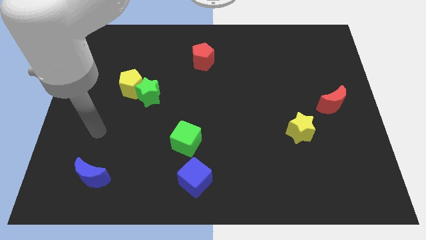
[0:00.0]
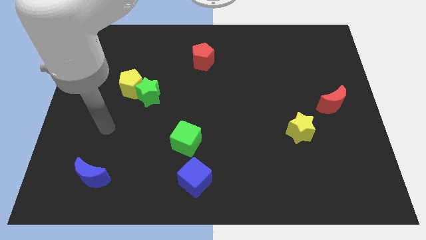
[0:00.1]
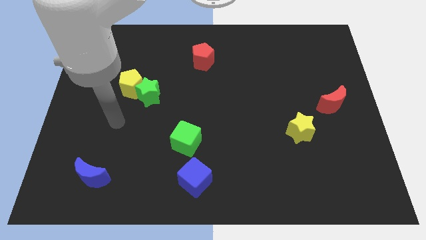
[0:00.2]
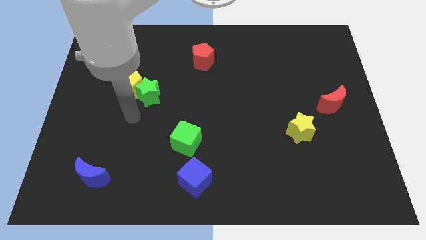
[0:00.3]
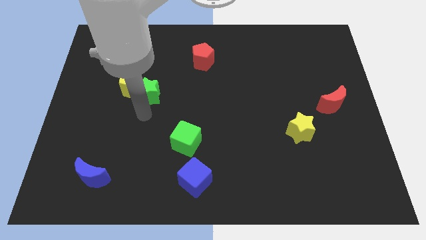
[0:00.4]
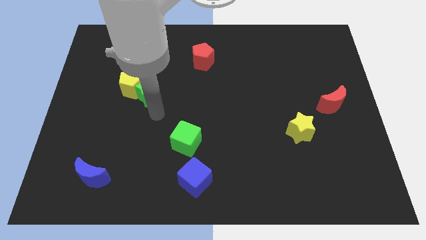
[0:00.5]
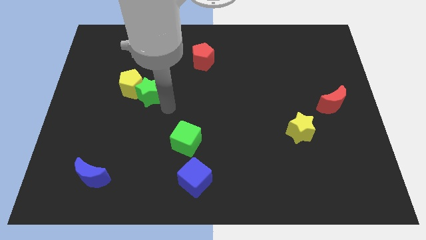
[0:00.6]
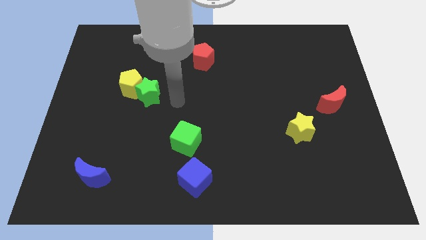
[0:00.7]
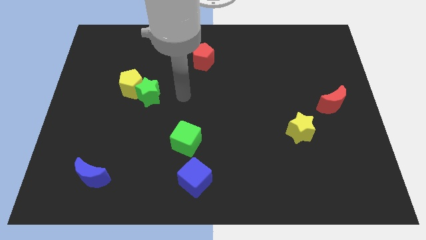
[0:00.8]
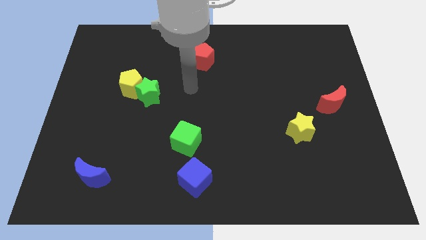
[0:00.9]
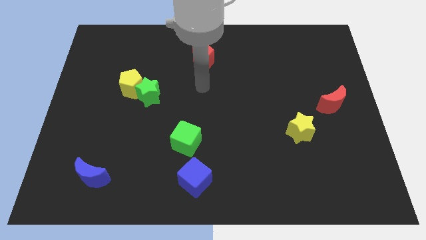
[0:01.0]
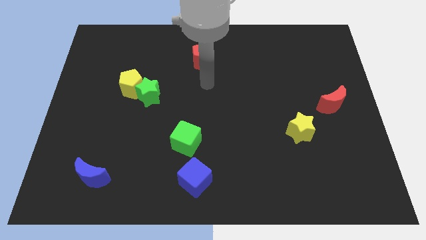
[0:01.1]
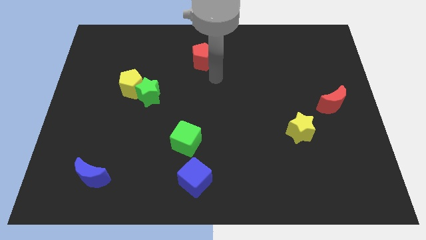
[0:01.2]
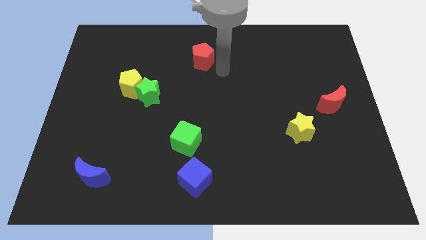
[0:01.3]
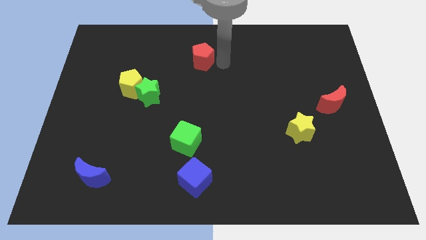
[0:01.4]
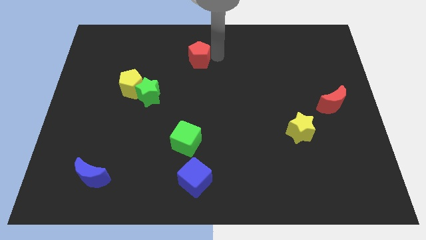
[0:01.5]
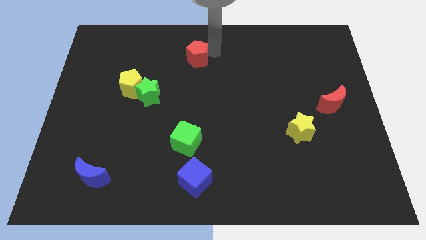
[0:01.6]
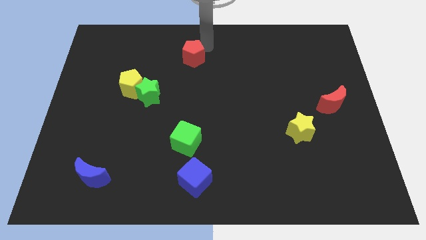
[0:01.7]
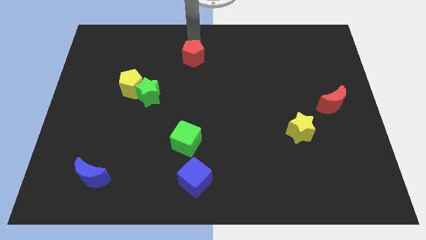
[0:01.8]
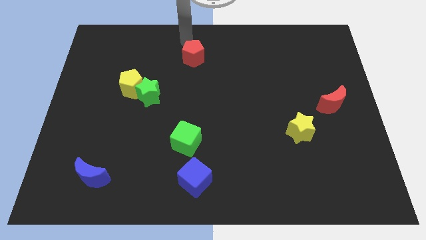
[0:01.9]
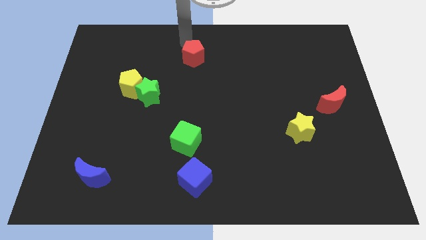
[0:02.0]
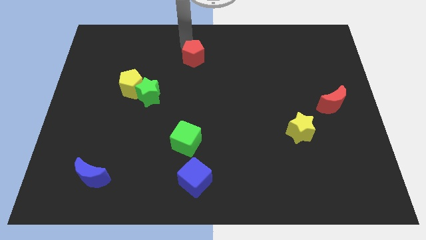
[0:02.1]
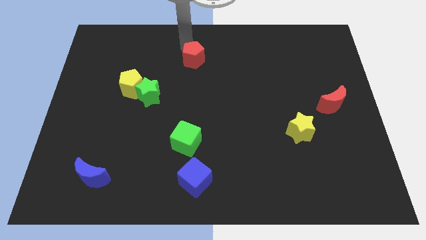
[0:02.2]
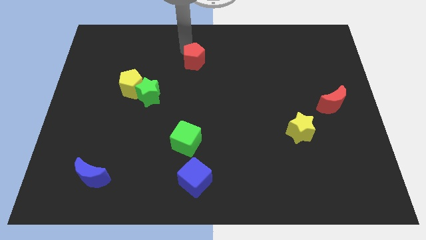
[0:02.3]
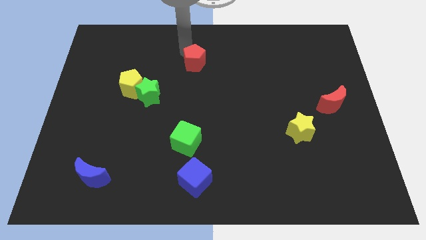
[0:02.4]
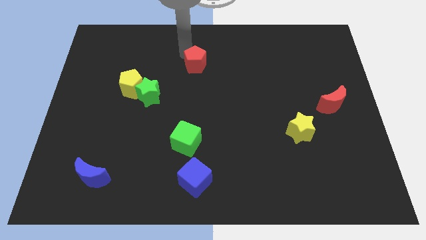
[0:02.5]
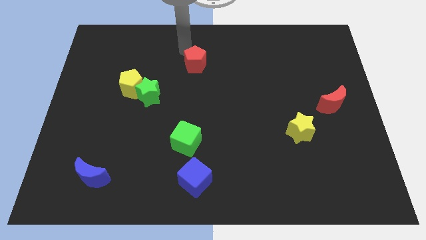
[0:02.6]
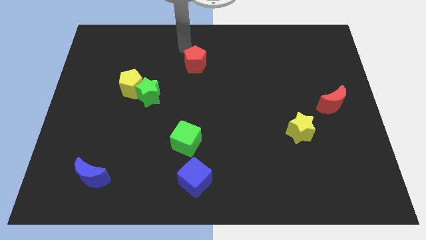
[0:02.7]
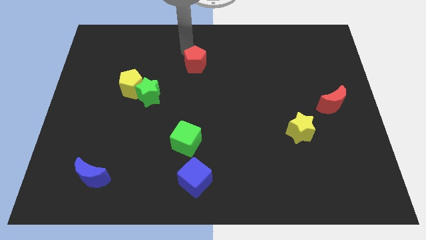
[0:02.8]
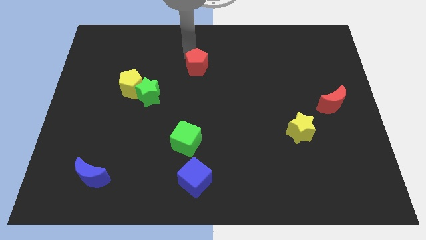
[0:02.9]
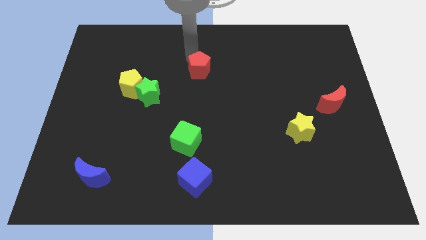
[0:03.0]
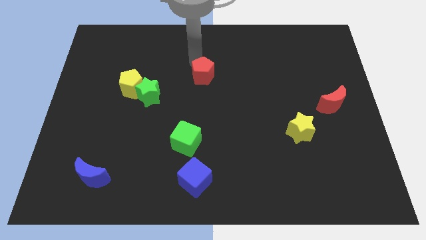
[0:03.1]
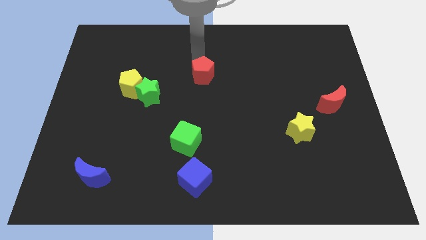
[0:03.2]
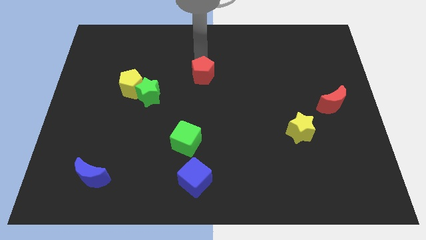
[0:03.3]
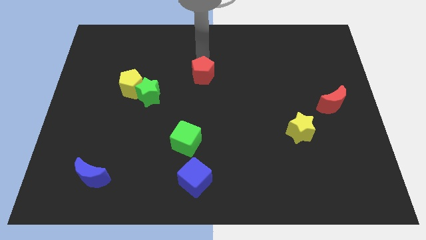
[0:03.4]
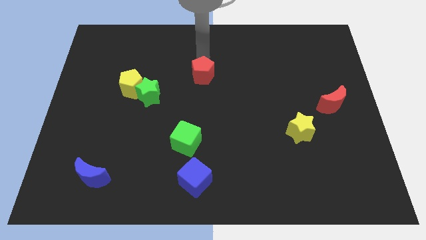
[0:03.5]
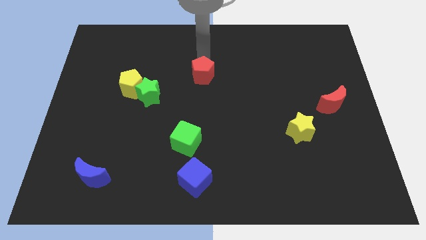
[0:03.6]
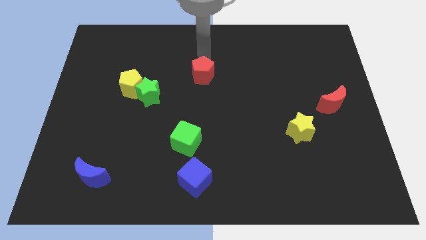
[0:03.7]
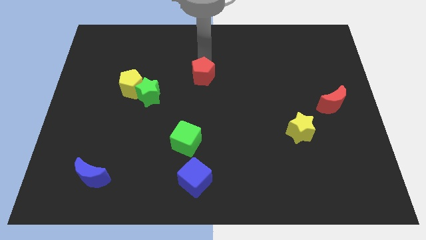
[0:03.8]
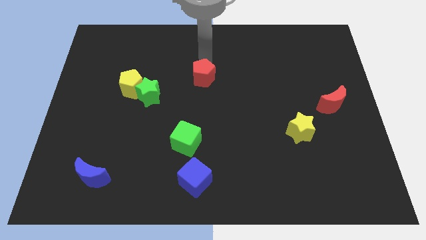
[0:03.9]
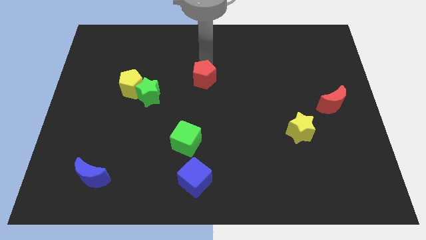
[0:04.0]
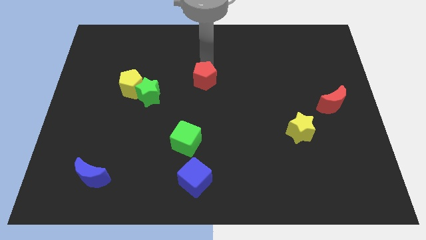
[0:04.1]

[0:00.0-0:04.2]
move the red pentagon a little downwards

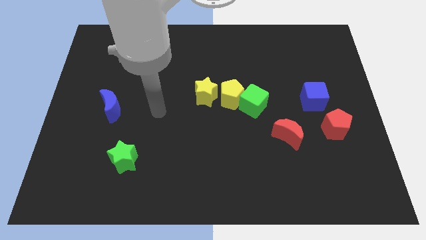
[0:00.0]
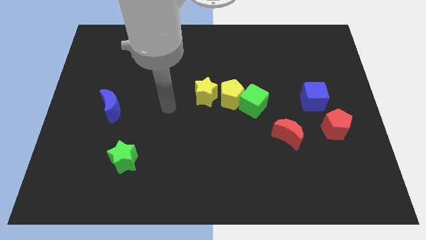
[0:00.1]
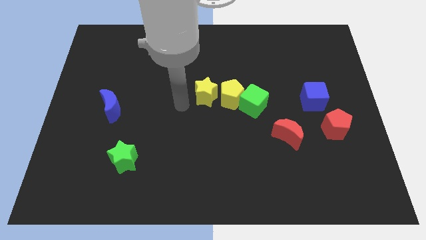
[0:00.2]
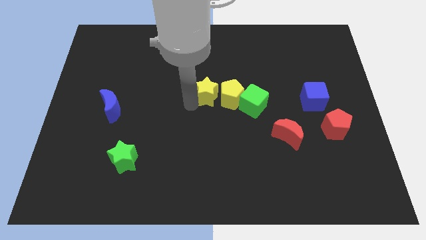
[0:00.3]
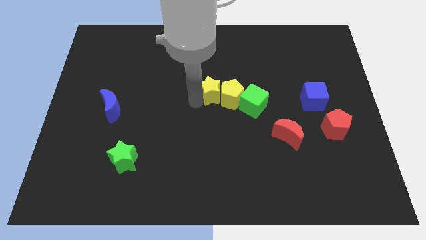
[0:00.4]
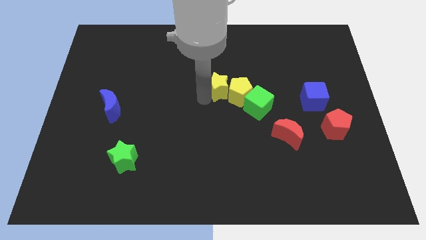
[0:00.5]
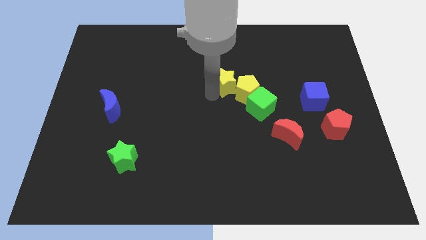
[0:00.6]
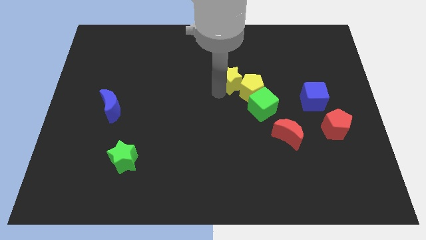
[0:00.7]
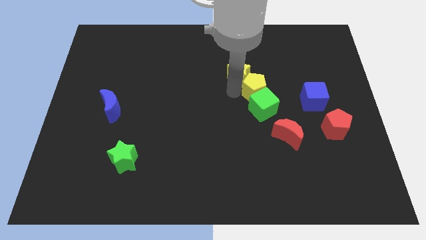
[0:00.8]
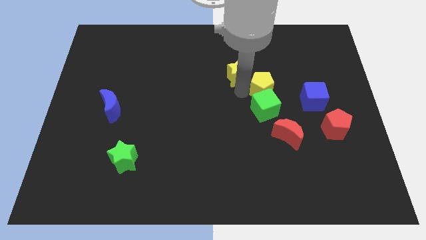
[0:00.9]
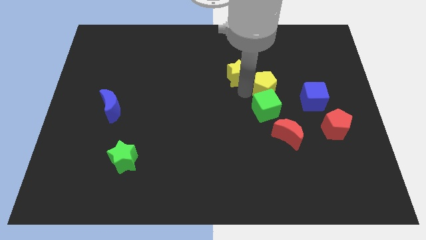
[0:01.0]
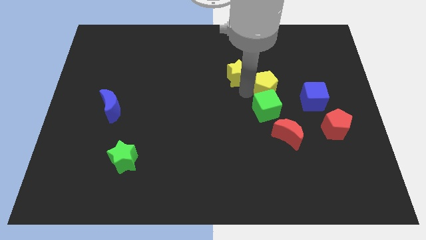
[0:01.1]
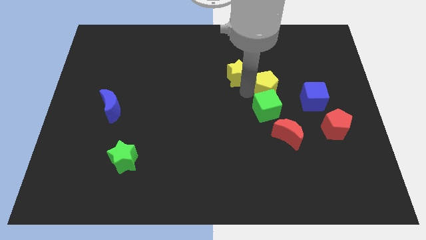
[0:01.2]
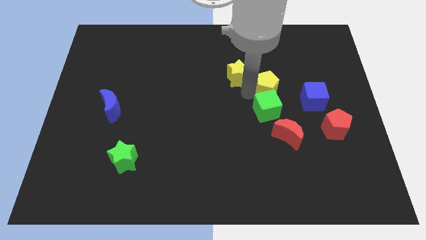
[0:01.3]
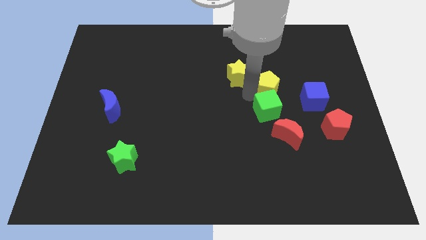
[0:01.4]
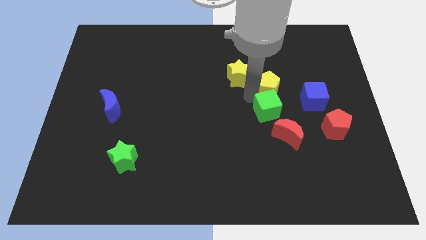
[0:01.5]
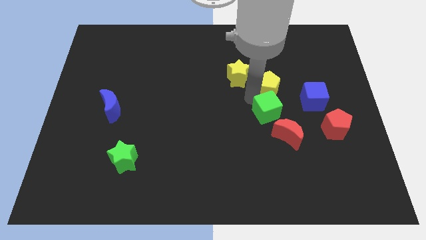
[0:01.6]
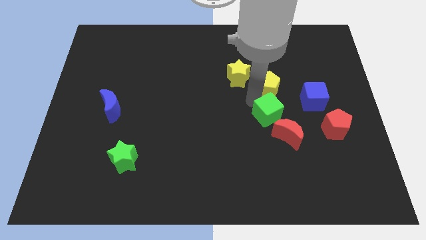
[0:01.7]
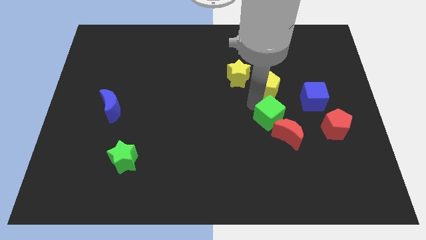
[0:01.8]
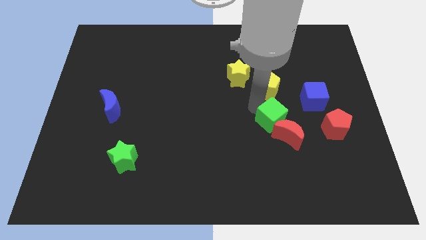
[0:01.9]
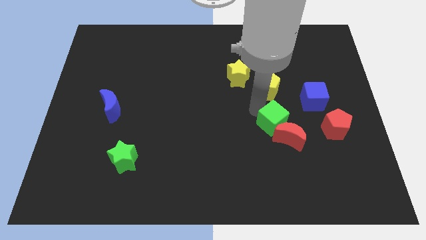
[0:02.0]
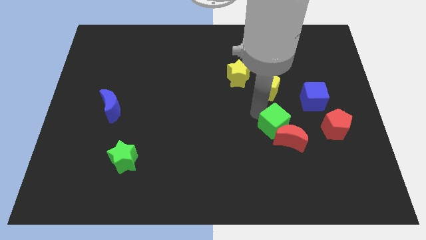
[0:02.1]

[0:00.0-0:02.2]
slide the green cube slightly diagonally downwards and right

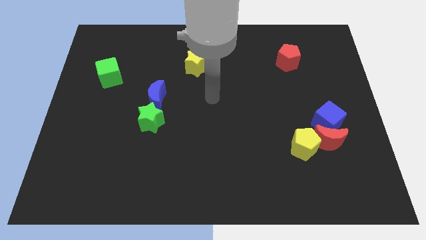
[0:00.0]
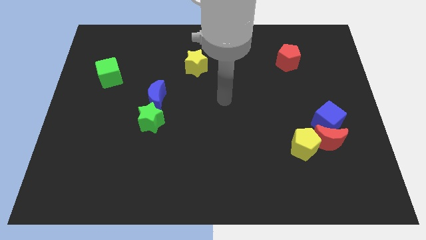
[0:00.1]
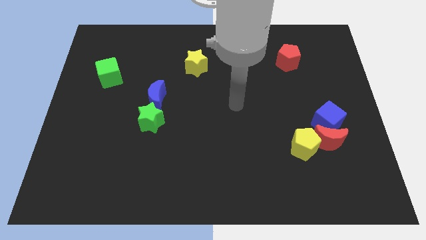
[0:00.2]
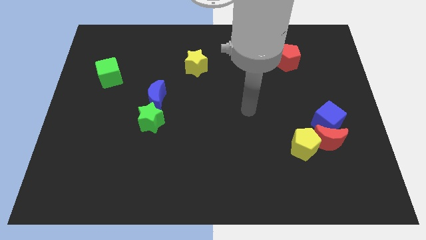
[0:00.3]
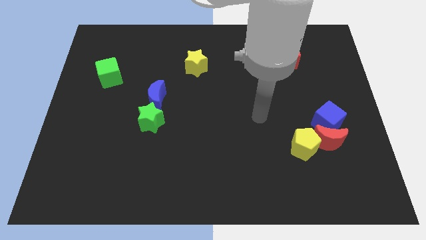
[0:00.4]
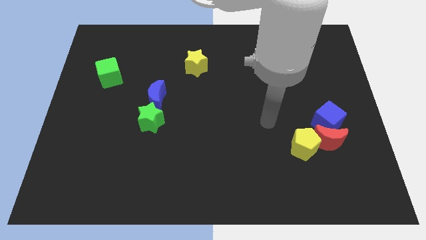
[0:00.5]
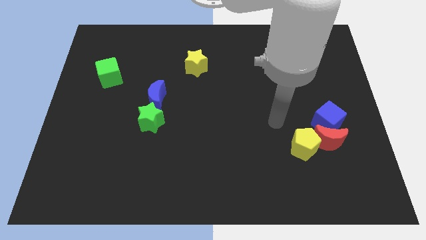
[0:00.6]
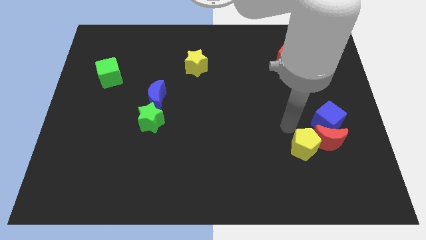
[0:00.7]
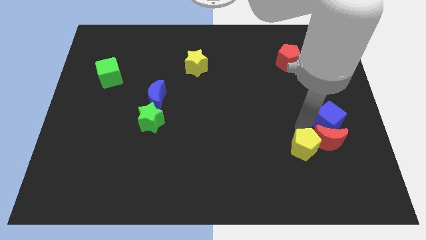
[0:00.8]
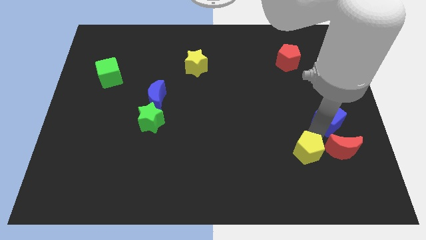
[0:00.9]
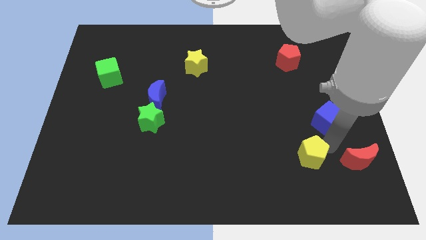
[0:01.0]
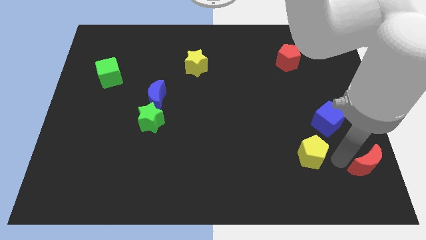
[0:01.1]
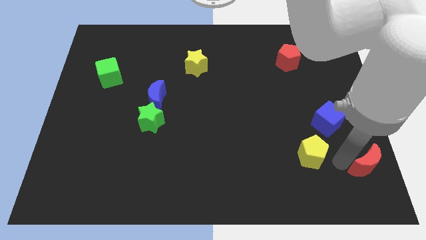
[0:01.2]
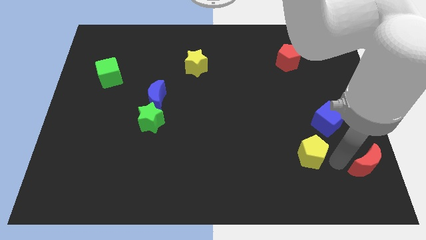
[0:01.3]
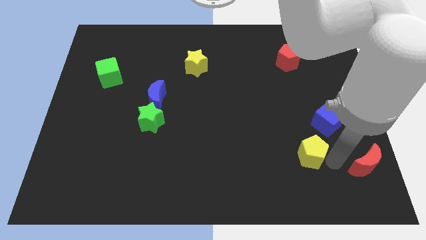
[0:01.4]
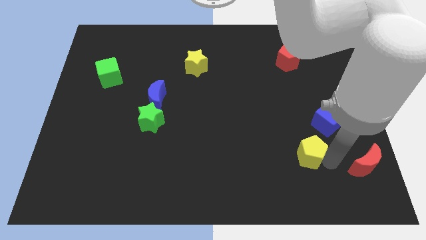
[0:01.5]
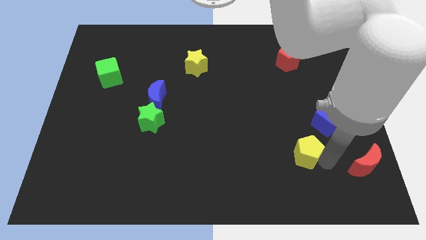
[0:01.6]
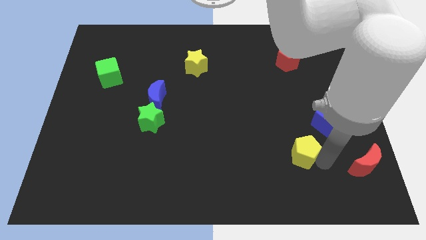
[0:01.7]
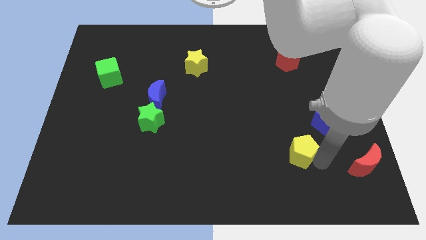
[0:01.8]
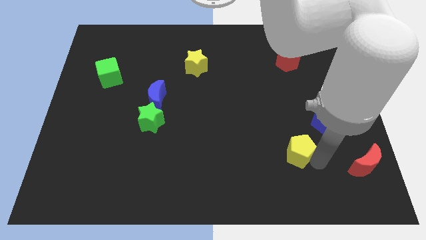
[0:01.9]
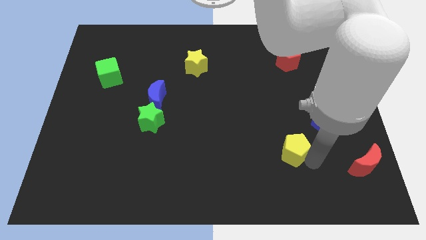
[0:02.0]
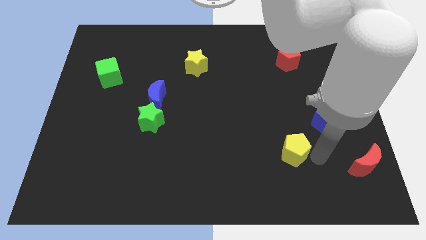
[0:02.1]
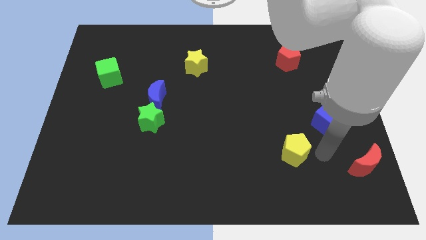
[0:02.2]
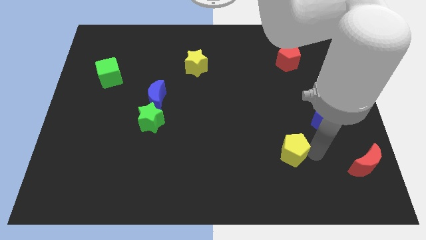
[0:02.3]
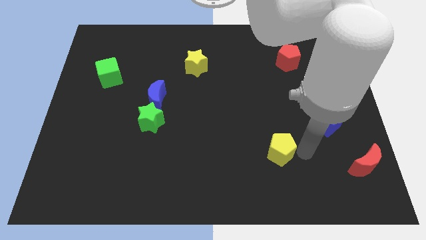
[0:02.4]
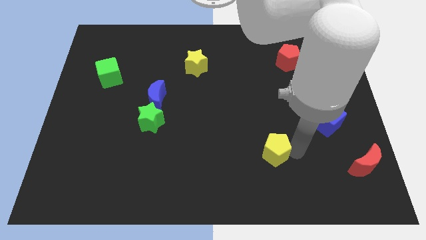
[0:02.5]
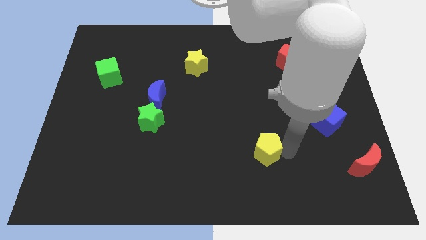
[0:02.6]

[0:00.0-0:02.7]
slide the yellow pentagon left a little bit
